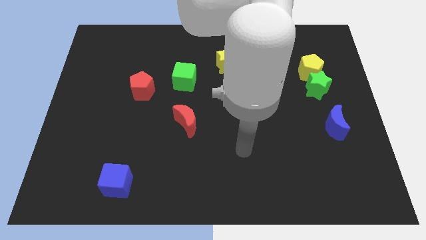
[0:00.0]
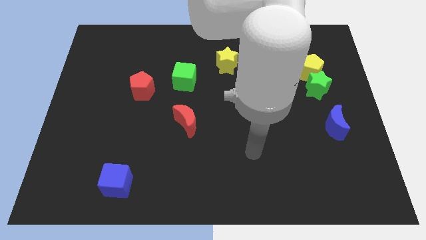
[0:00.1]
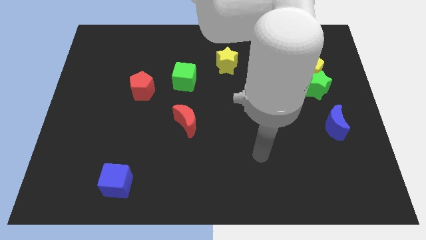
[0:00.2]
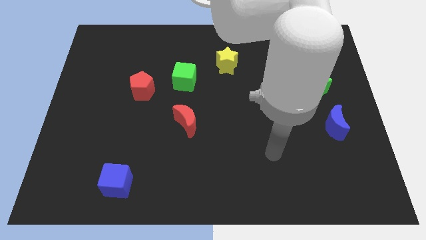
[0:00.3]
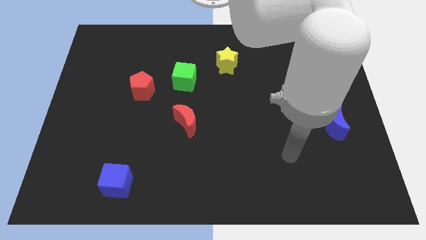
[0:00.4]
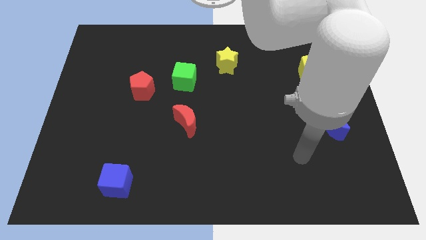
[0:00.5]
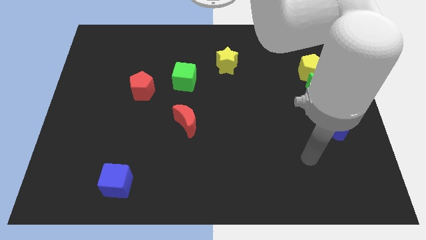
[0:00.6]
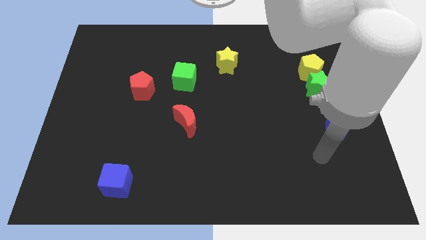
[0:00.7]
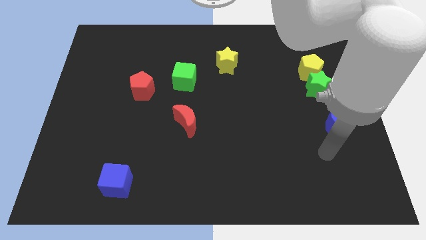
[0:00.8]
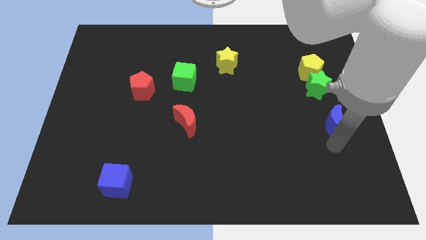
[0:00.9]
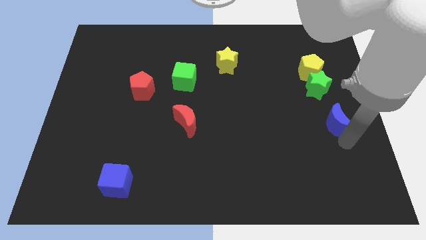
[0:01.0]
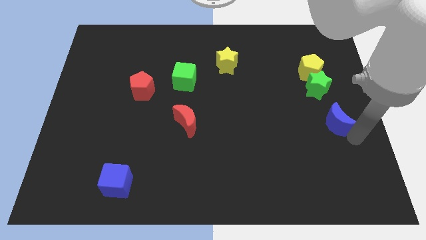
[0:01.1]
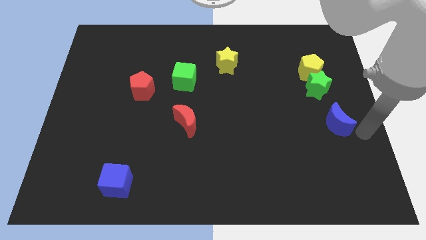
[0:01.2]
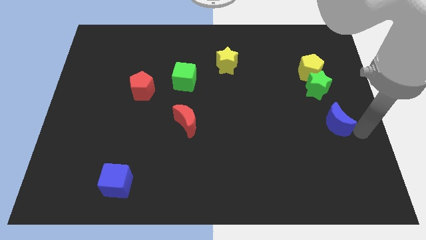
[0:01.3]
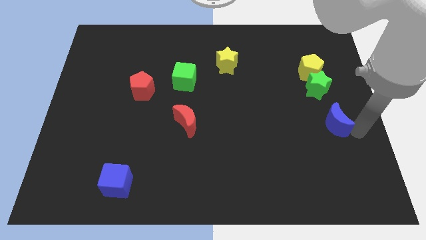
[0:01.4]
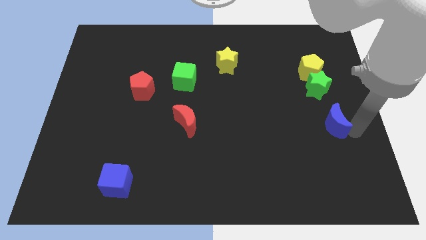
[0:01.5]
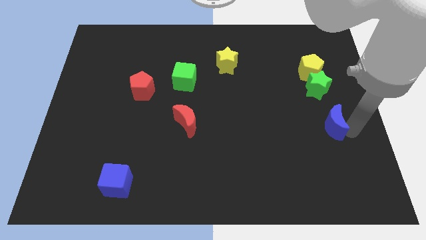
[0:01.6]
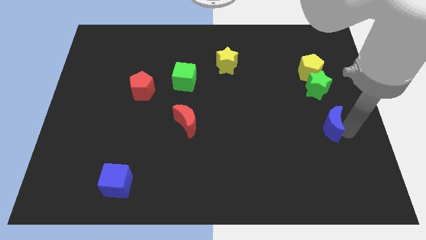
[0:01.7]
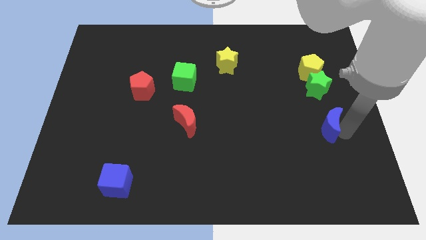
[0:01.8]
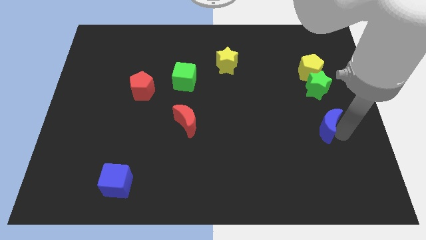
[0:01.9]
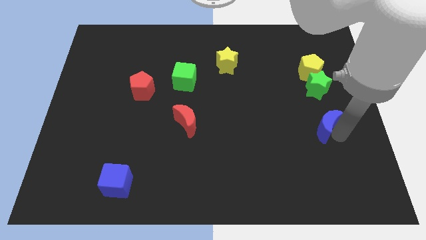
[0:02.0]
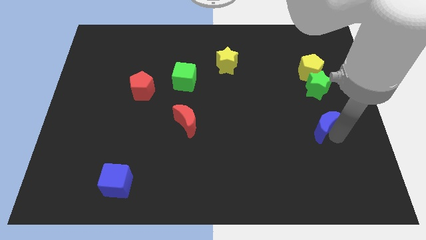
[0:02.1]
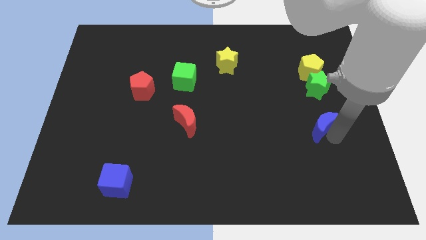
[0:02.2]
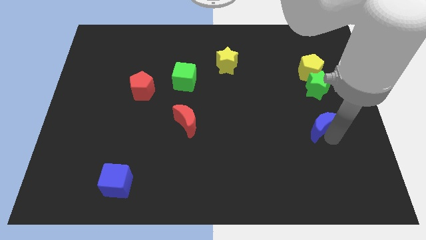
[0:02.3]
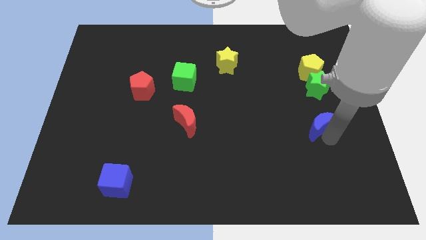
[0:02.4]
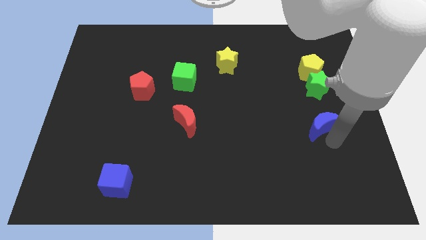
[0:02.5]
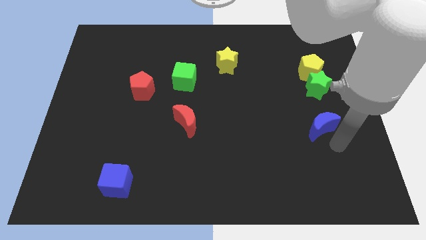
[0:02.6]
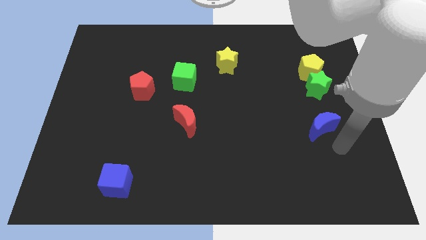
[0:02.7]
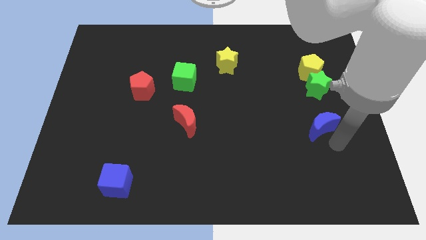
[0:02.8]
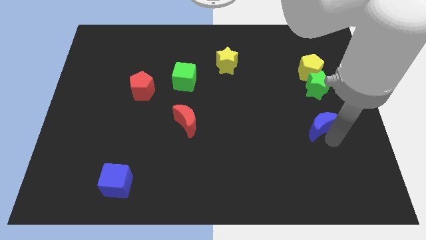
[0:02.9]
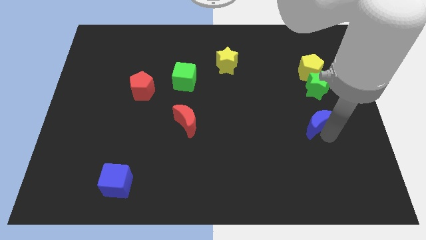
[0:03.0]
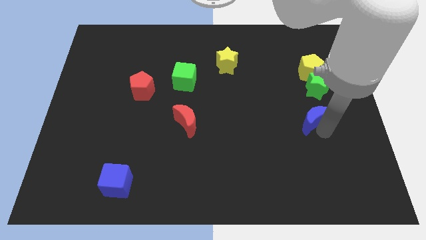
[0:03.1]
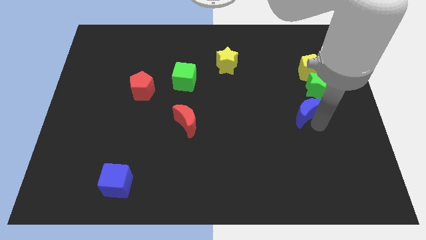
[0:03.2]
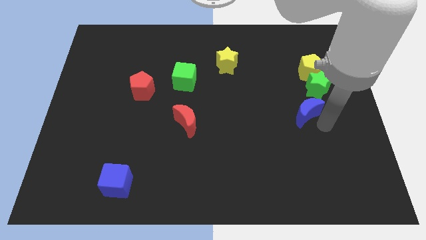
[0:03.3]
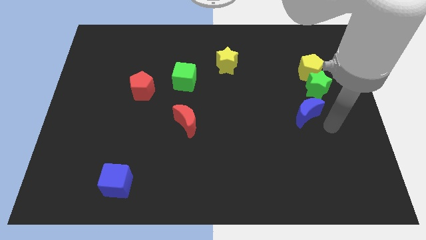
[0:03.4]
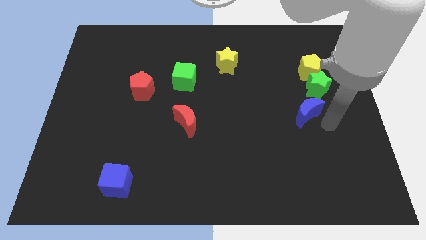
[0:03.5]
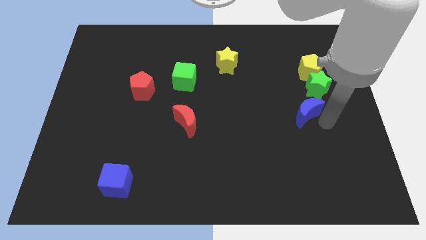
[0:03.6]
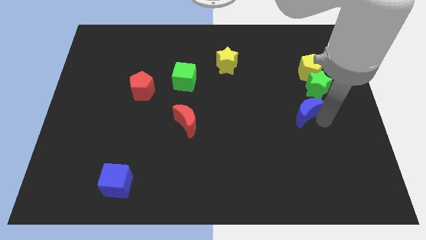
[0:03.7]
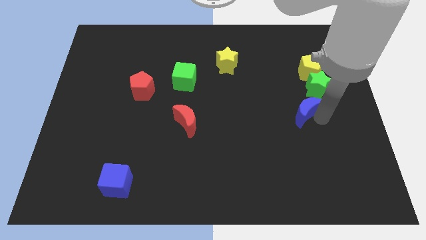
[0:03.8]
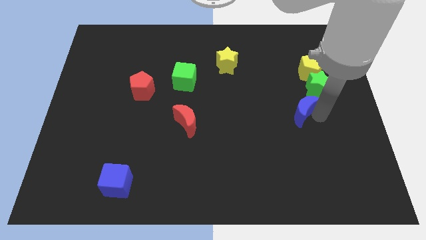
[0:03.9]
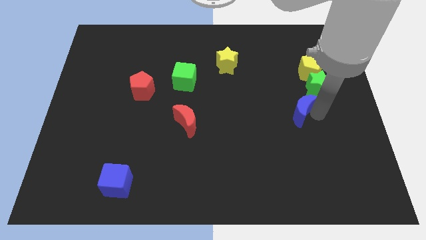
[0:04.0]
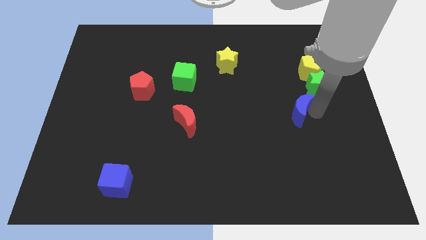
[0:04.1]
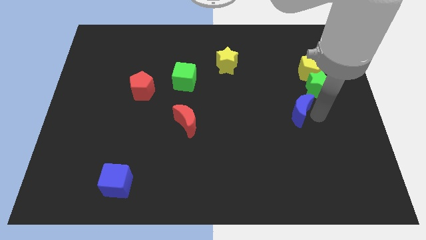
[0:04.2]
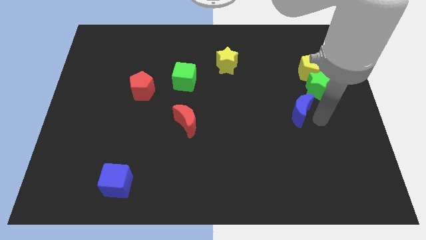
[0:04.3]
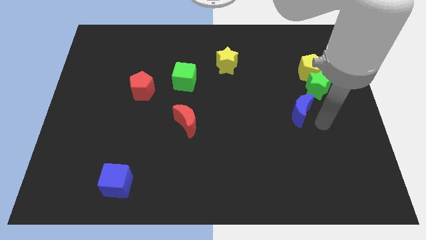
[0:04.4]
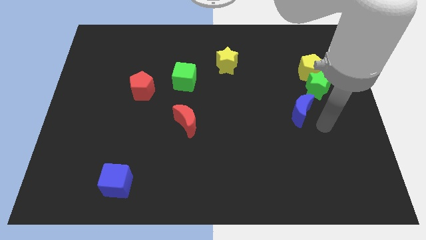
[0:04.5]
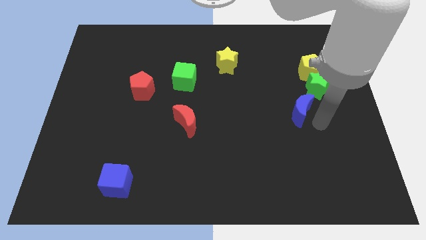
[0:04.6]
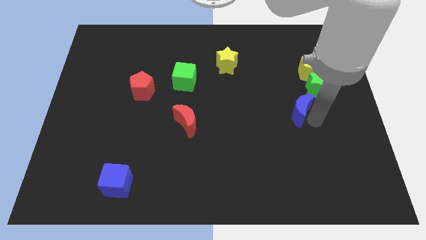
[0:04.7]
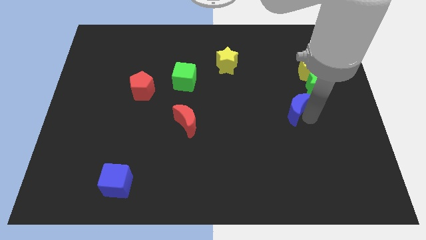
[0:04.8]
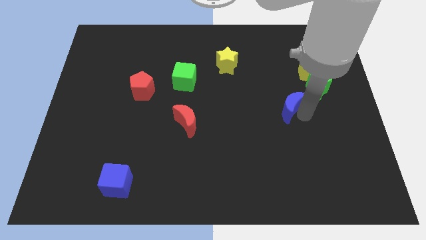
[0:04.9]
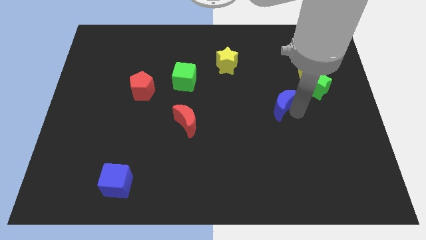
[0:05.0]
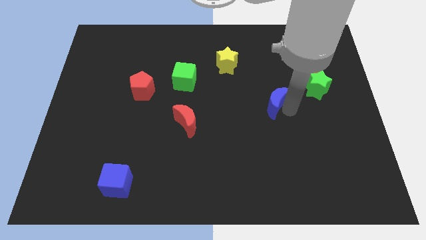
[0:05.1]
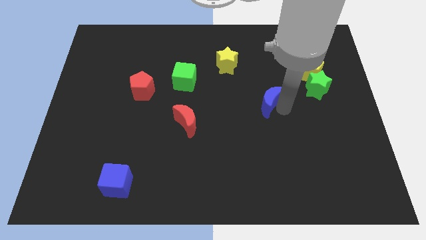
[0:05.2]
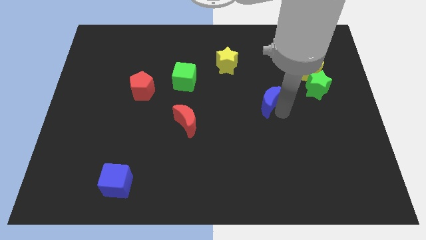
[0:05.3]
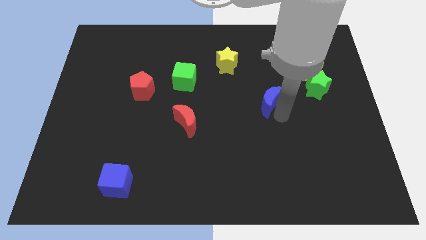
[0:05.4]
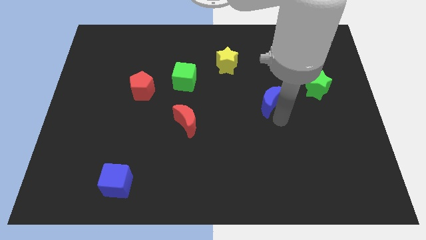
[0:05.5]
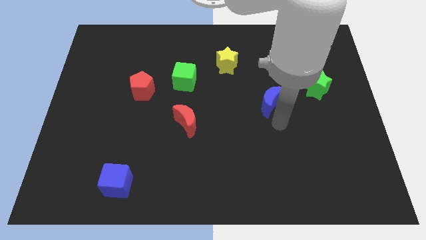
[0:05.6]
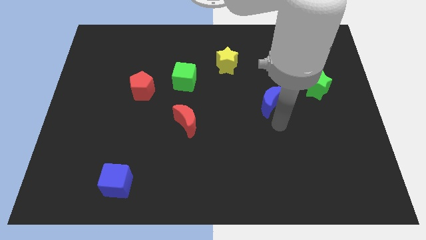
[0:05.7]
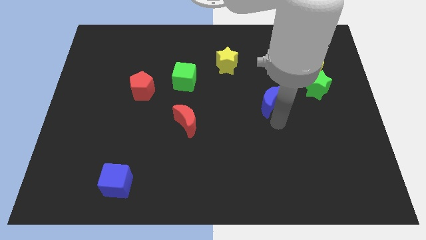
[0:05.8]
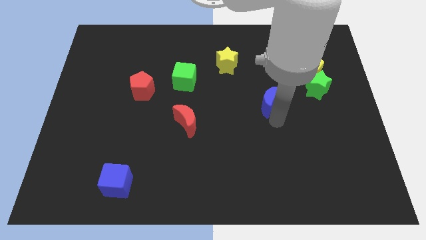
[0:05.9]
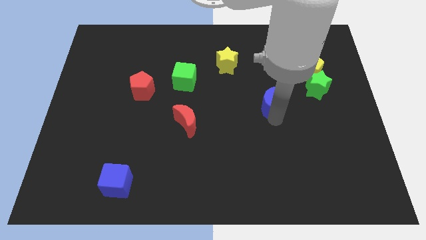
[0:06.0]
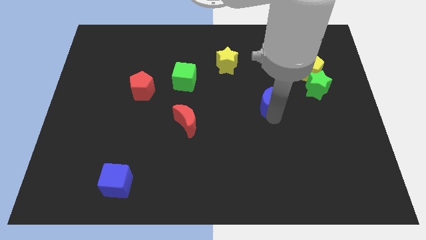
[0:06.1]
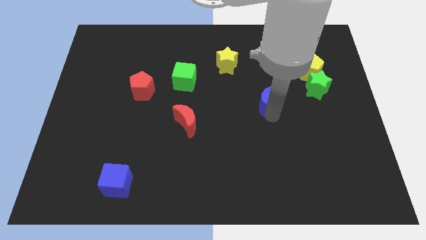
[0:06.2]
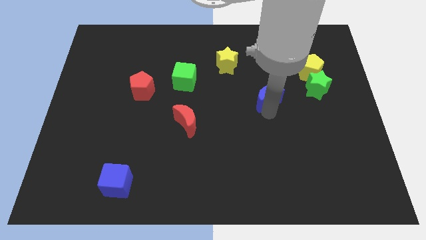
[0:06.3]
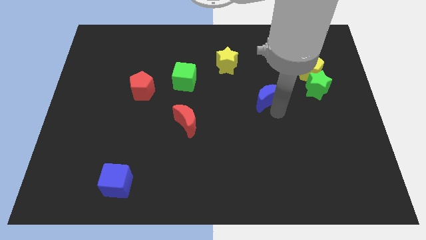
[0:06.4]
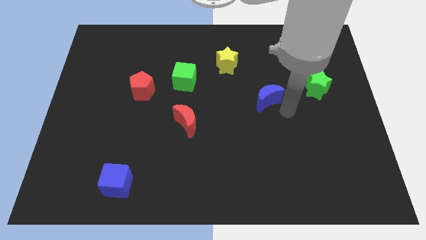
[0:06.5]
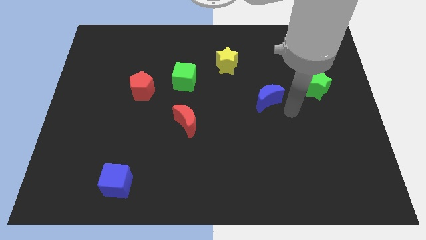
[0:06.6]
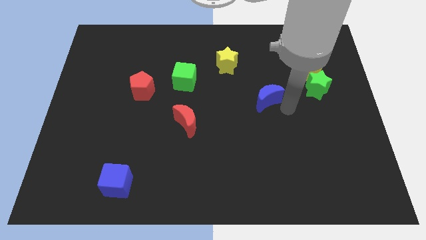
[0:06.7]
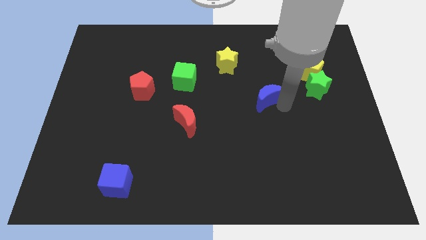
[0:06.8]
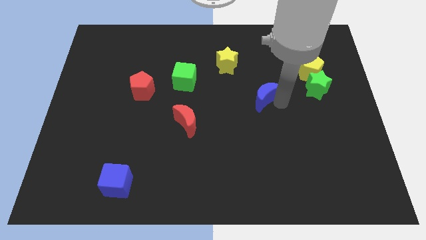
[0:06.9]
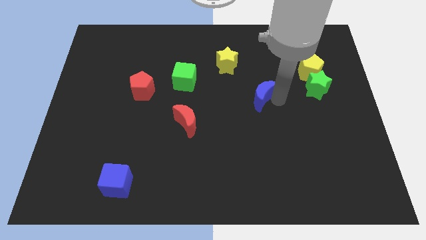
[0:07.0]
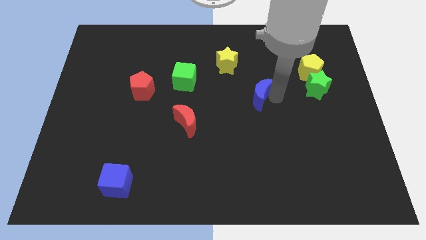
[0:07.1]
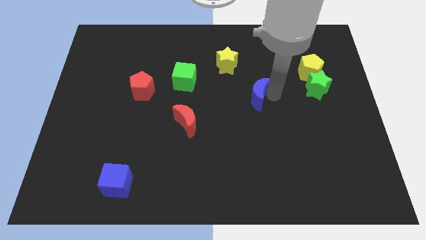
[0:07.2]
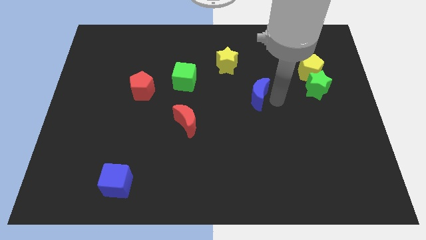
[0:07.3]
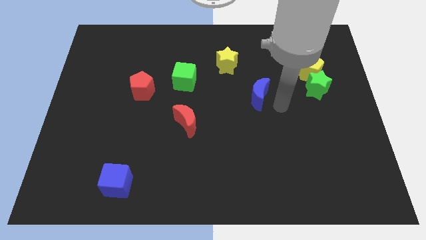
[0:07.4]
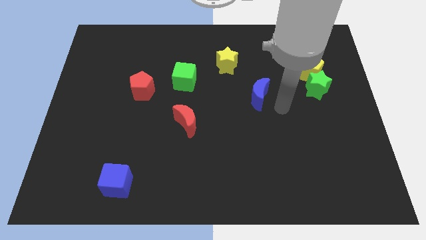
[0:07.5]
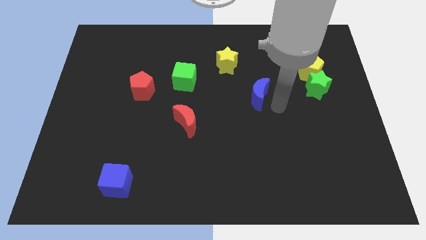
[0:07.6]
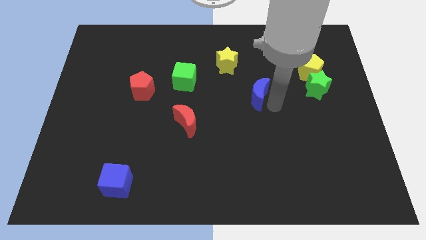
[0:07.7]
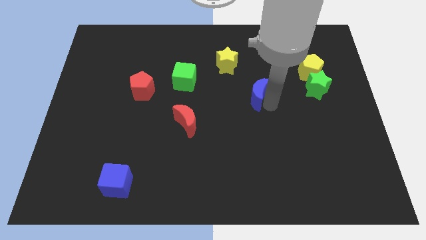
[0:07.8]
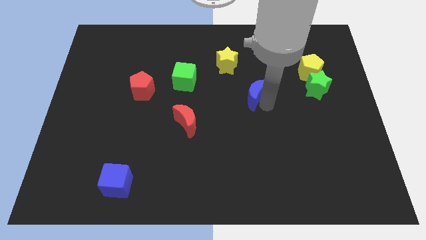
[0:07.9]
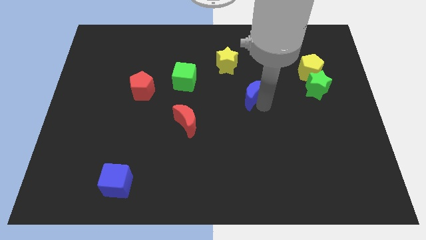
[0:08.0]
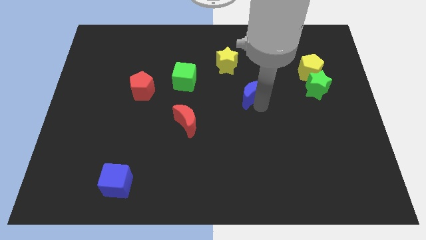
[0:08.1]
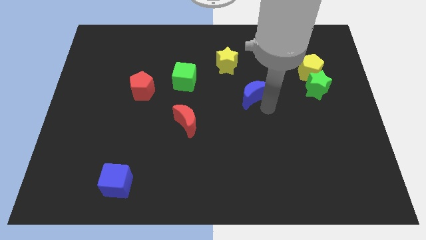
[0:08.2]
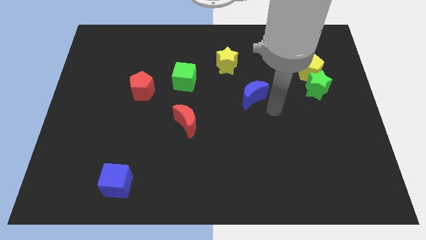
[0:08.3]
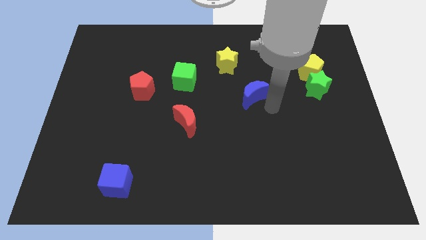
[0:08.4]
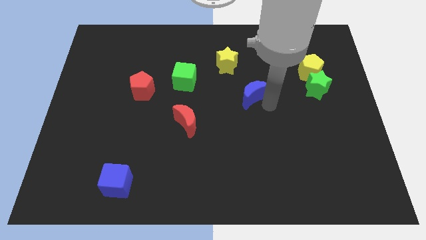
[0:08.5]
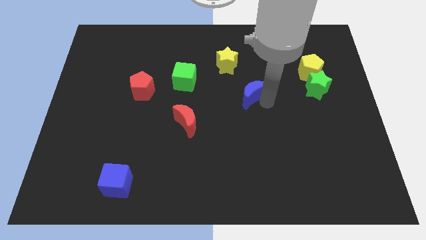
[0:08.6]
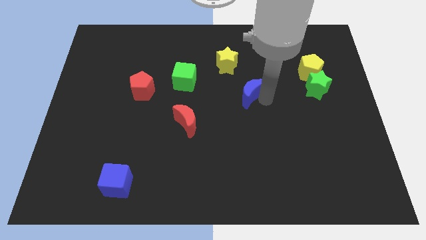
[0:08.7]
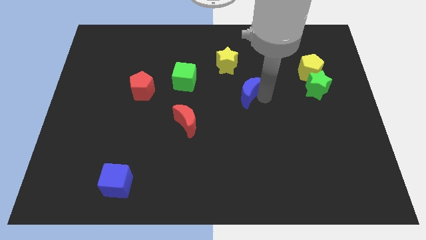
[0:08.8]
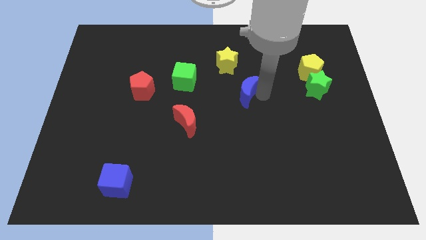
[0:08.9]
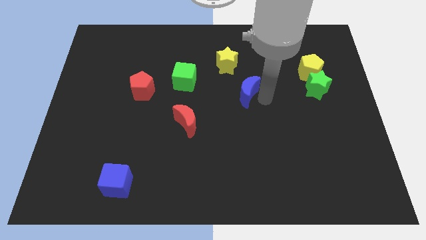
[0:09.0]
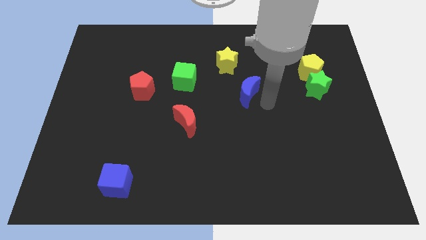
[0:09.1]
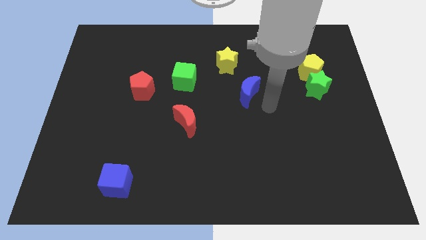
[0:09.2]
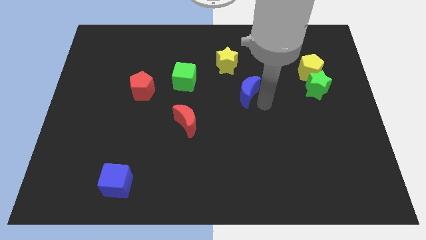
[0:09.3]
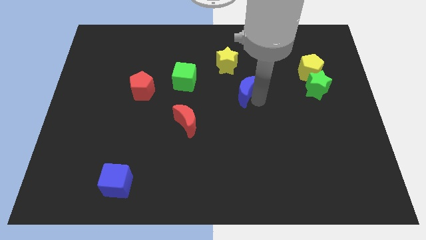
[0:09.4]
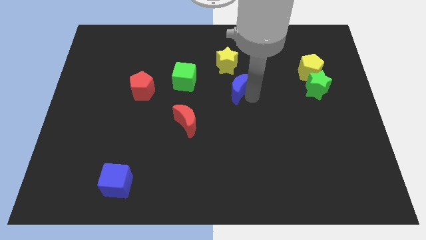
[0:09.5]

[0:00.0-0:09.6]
put the blue moon to the right side of the green cube
